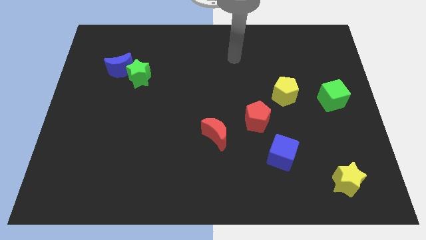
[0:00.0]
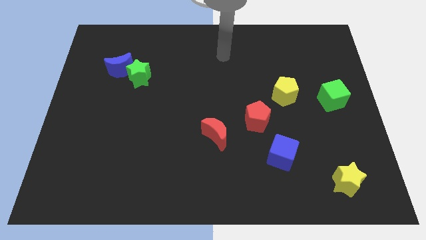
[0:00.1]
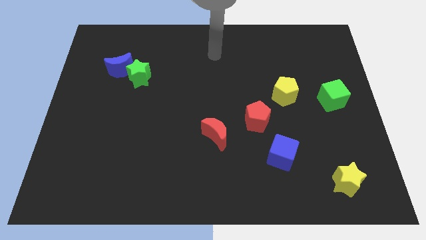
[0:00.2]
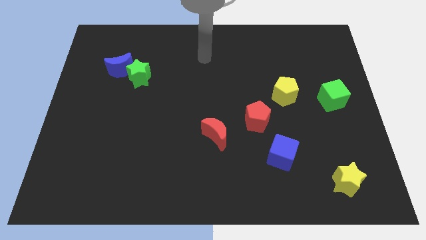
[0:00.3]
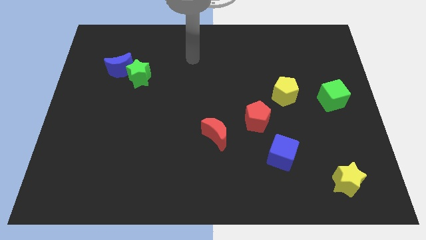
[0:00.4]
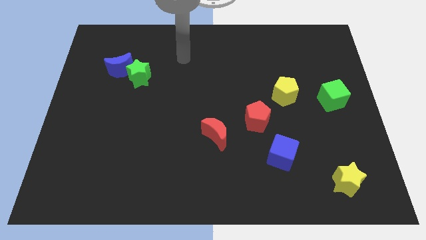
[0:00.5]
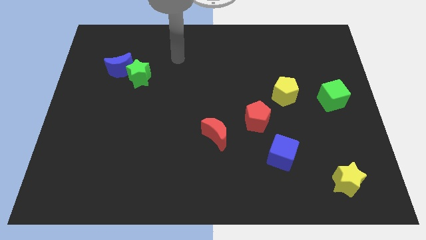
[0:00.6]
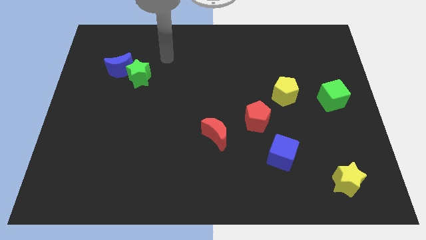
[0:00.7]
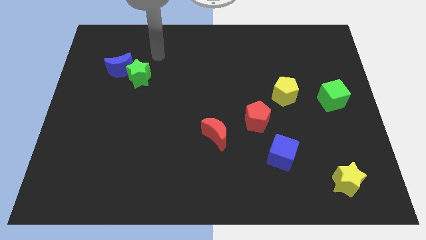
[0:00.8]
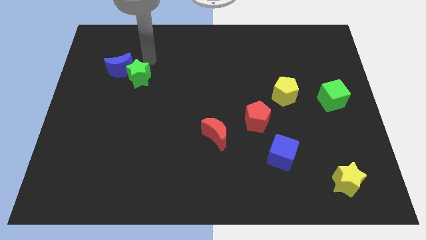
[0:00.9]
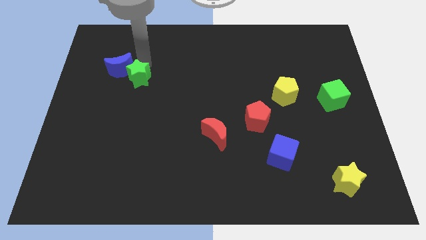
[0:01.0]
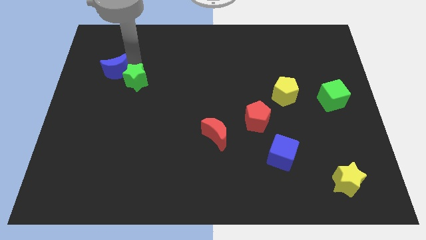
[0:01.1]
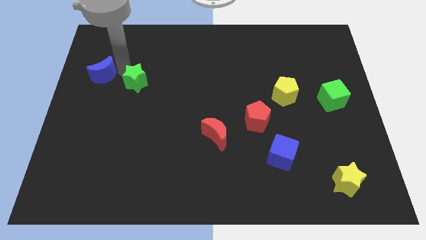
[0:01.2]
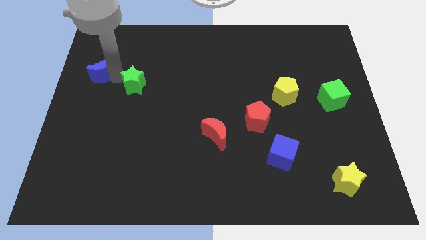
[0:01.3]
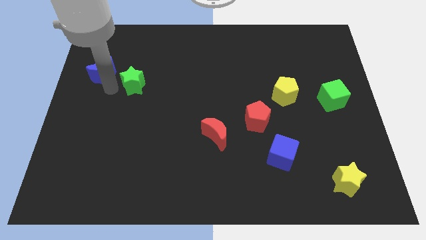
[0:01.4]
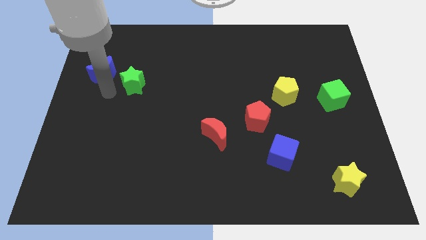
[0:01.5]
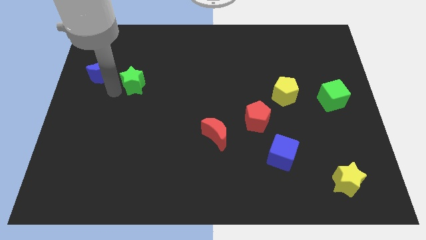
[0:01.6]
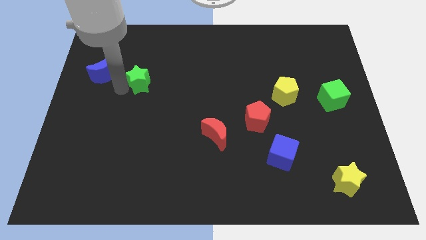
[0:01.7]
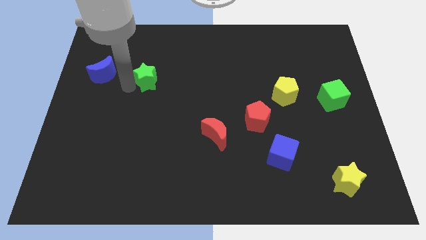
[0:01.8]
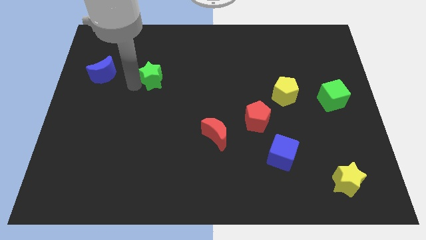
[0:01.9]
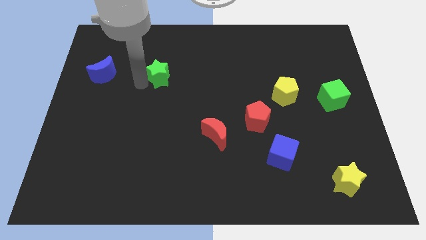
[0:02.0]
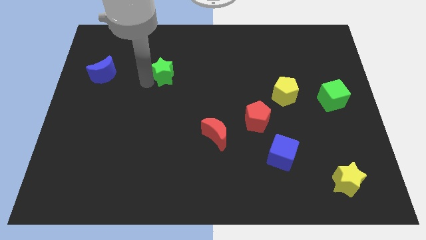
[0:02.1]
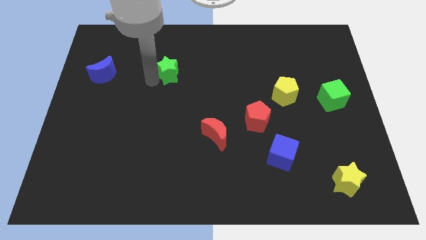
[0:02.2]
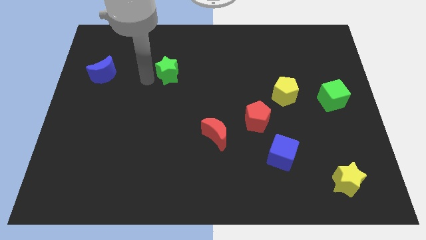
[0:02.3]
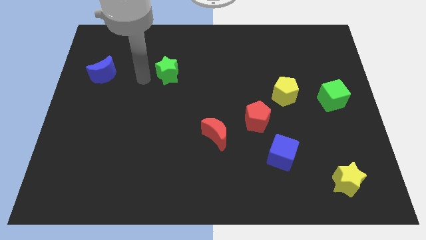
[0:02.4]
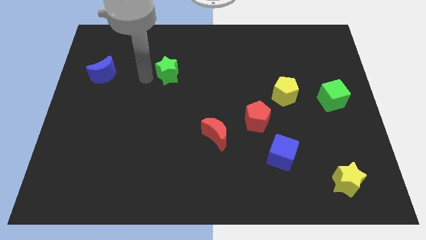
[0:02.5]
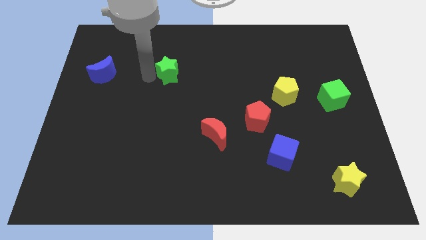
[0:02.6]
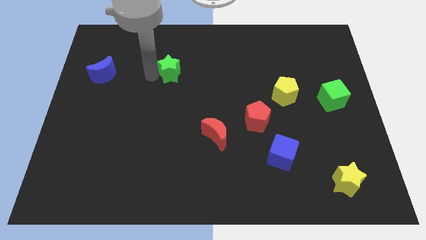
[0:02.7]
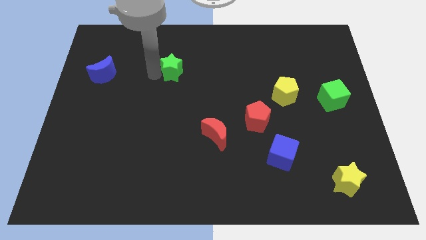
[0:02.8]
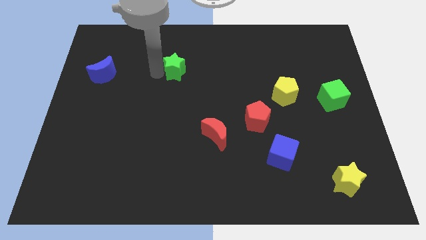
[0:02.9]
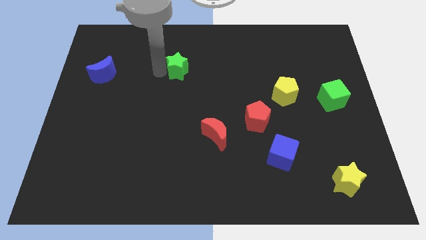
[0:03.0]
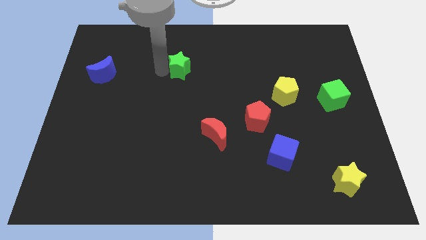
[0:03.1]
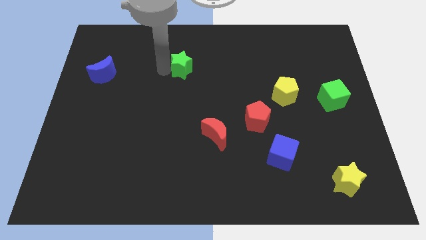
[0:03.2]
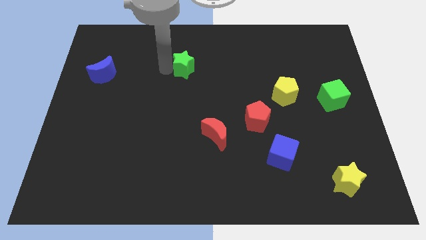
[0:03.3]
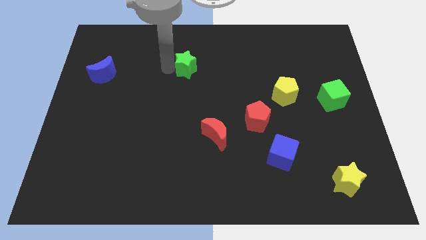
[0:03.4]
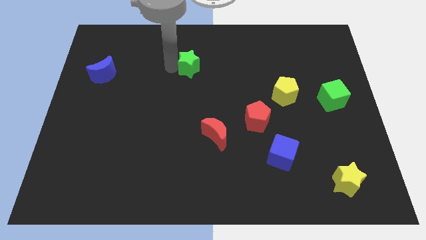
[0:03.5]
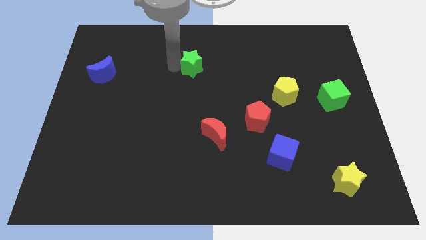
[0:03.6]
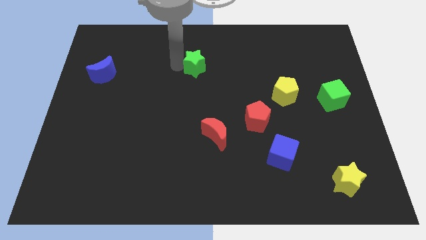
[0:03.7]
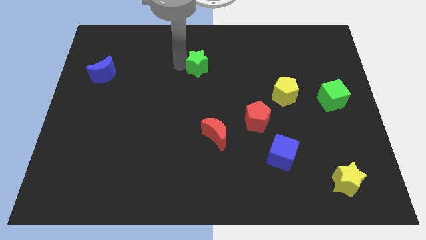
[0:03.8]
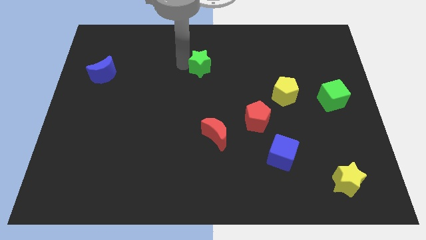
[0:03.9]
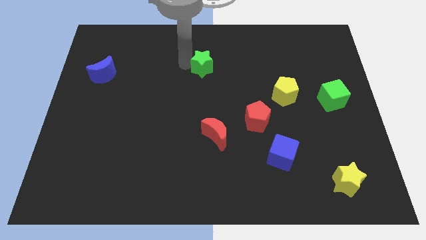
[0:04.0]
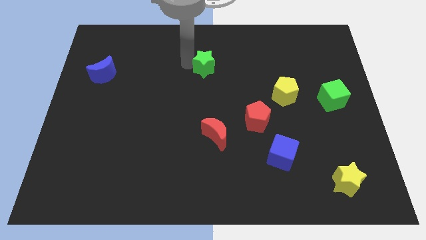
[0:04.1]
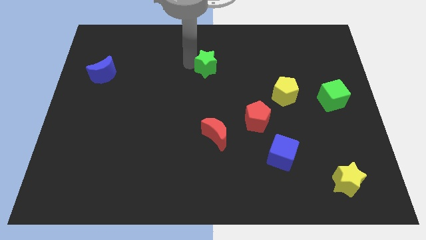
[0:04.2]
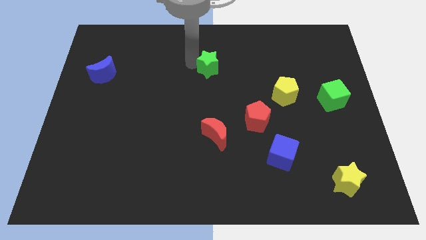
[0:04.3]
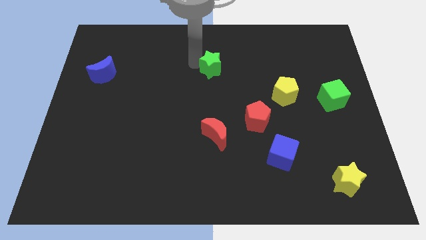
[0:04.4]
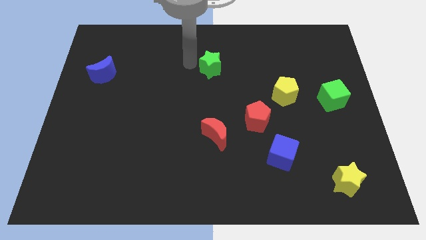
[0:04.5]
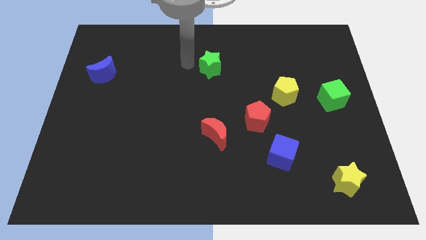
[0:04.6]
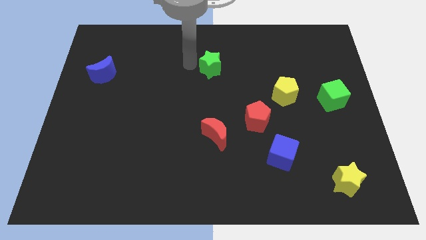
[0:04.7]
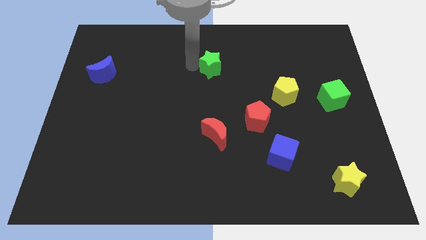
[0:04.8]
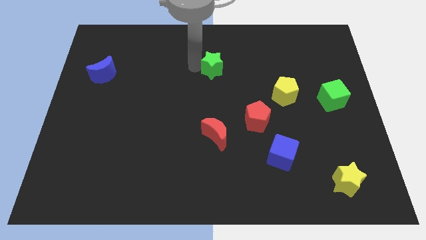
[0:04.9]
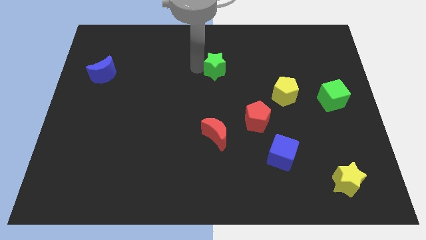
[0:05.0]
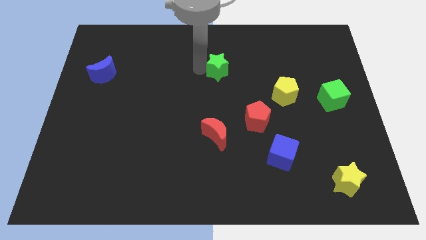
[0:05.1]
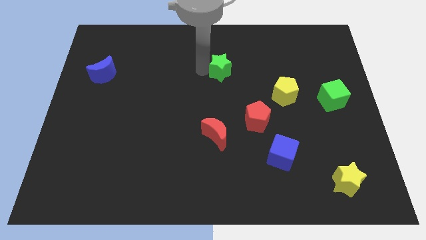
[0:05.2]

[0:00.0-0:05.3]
slide the green star right

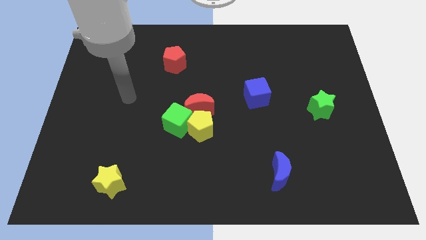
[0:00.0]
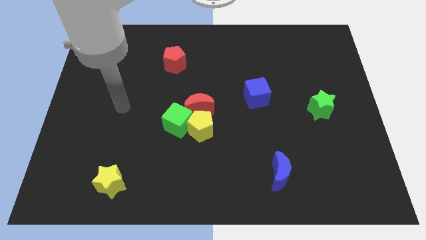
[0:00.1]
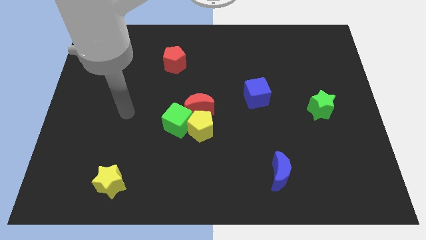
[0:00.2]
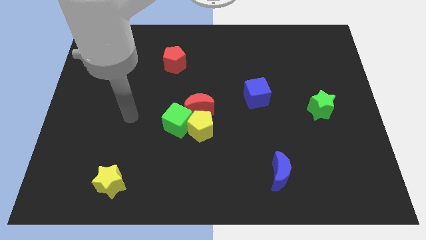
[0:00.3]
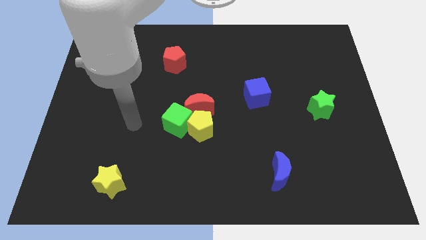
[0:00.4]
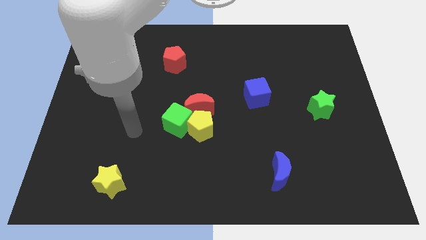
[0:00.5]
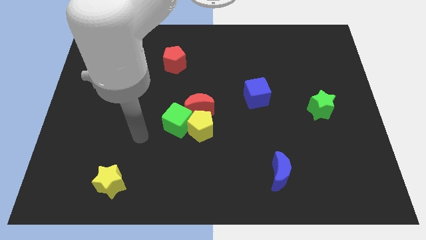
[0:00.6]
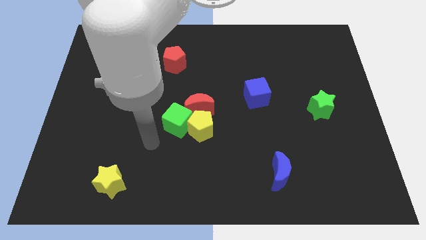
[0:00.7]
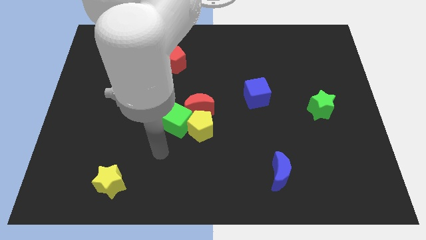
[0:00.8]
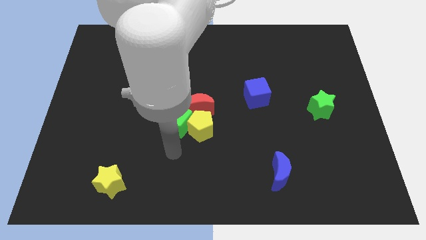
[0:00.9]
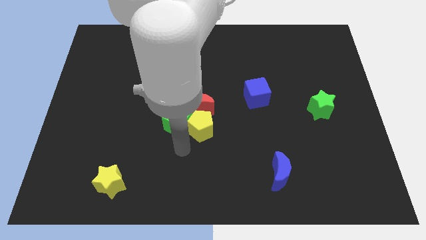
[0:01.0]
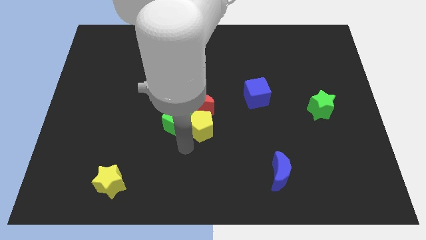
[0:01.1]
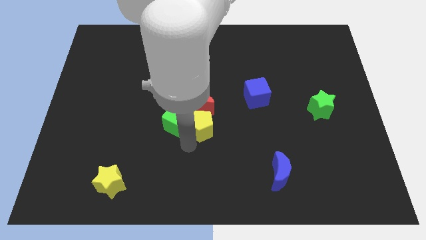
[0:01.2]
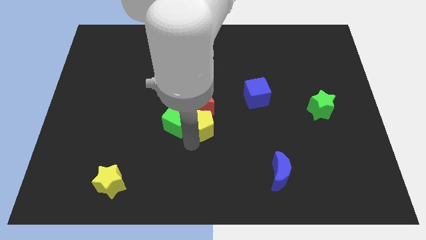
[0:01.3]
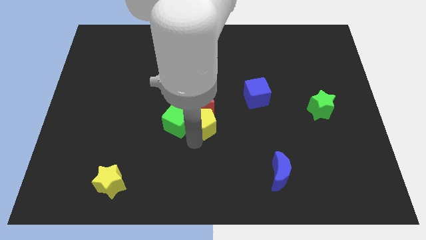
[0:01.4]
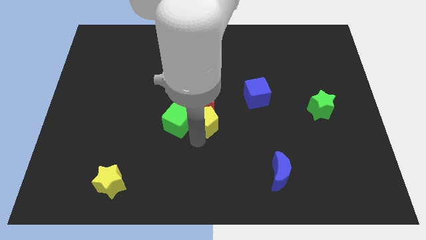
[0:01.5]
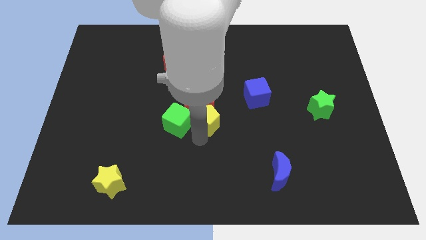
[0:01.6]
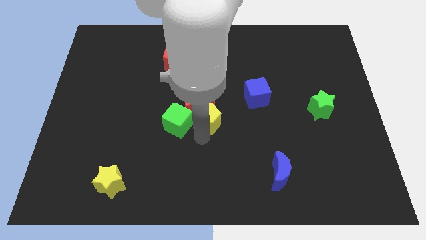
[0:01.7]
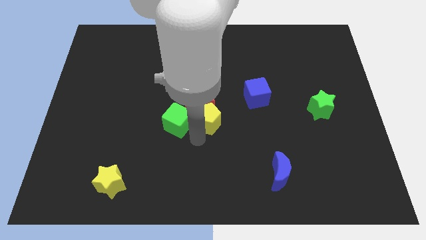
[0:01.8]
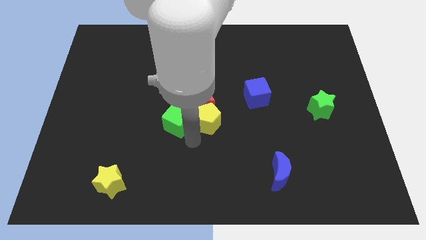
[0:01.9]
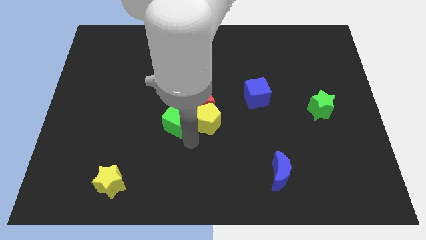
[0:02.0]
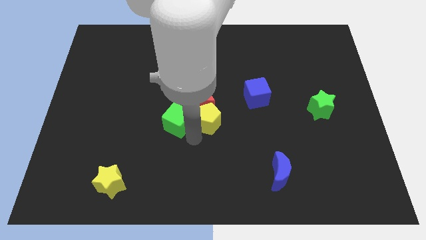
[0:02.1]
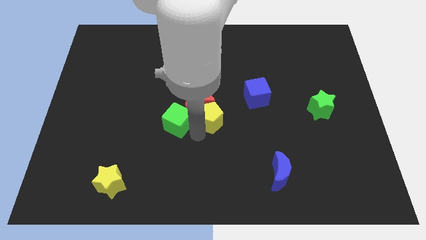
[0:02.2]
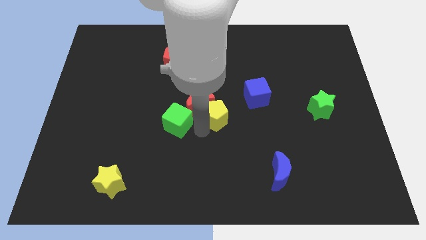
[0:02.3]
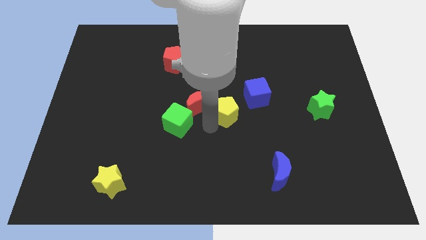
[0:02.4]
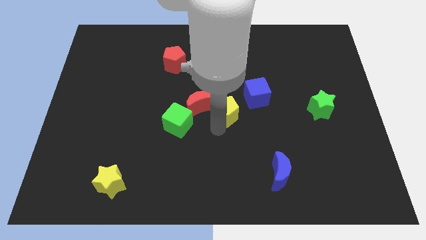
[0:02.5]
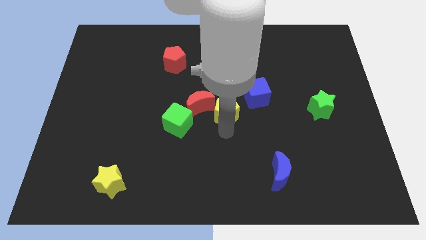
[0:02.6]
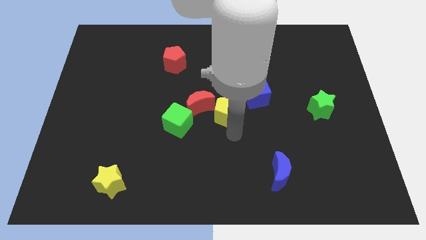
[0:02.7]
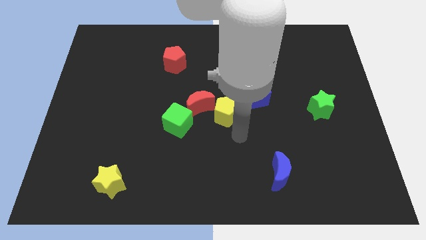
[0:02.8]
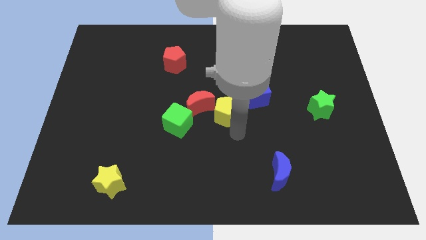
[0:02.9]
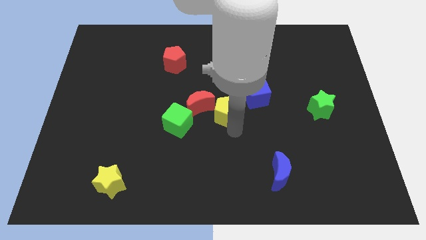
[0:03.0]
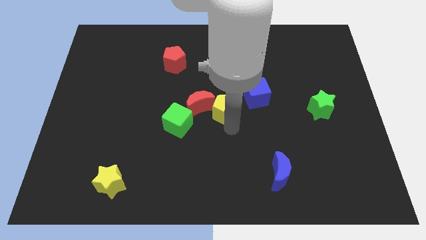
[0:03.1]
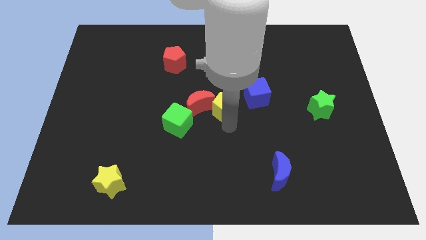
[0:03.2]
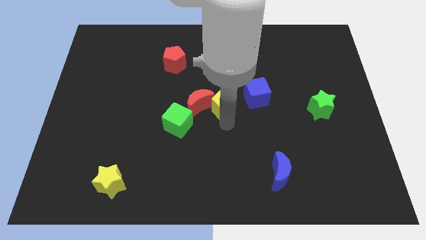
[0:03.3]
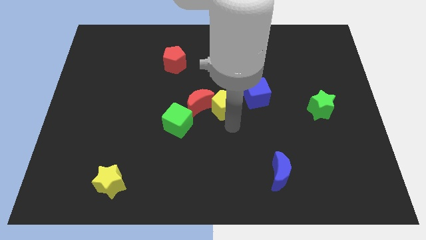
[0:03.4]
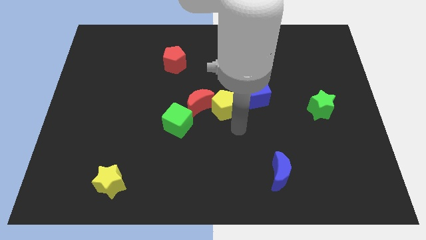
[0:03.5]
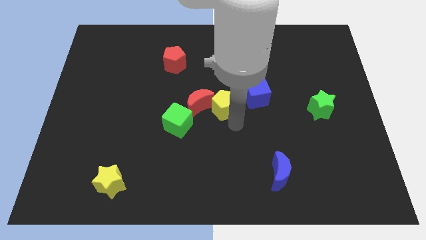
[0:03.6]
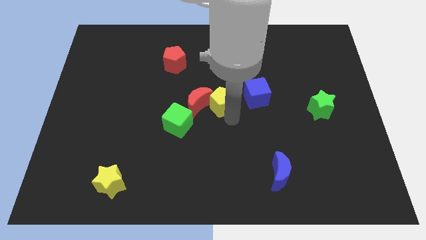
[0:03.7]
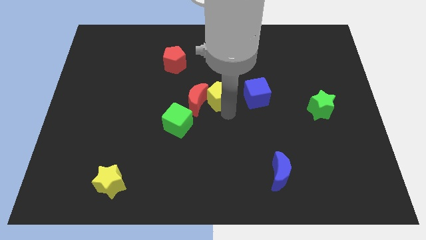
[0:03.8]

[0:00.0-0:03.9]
slightly move the yellow pentagon upwards
